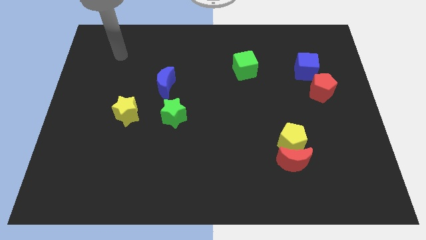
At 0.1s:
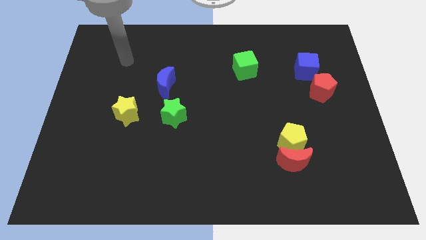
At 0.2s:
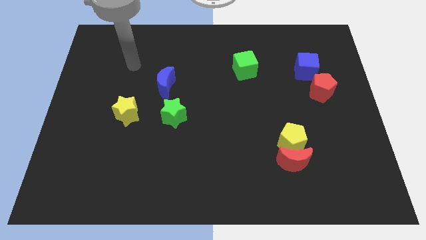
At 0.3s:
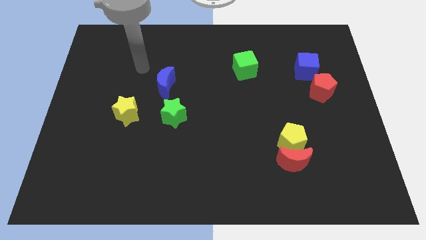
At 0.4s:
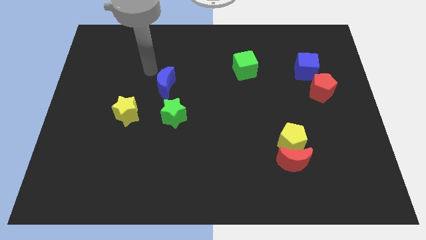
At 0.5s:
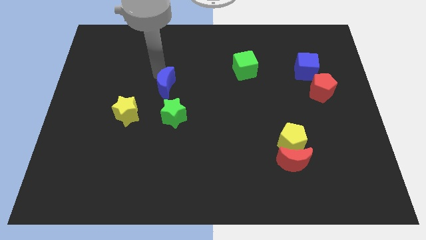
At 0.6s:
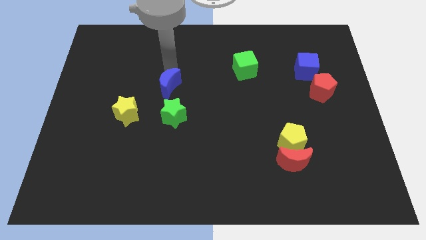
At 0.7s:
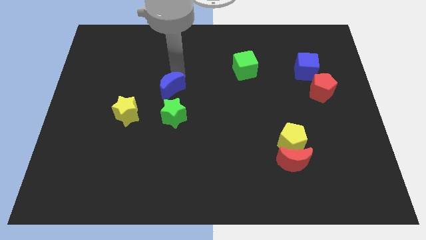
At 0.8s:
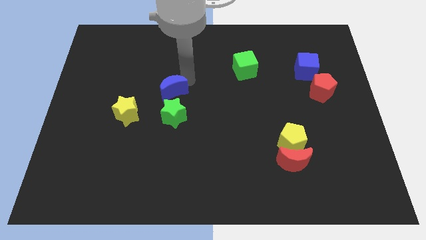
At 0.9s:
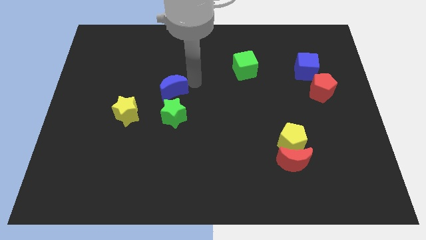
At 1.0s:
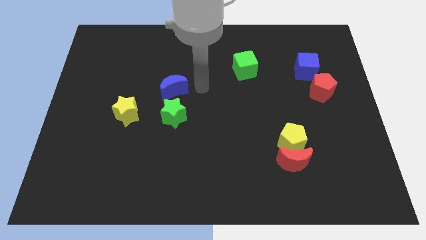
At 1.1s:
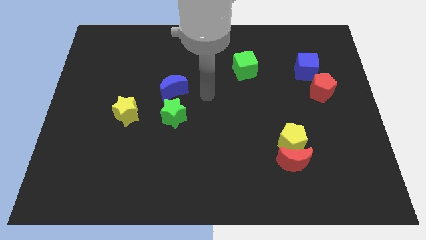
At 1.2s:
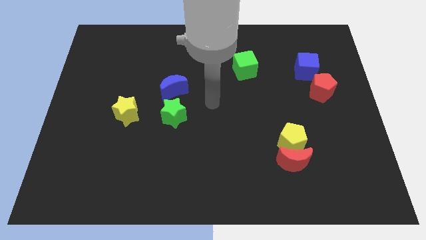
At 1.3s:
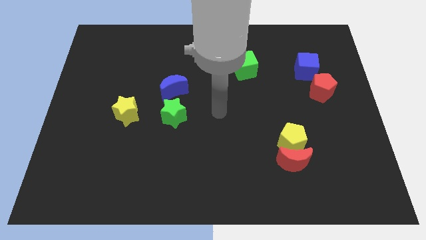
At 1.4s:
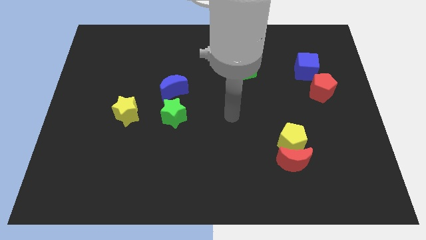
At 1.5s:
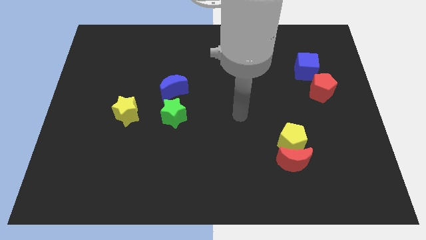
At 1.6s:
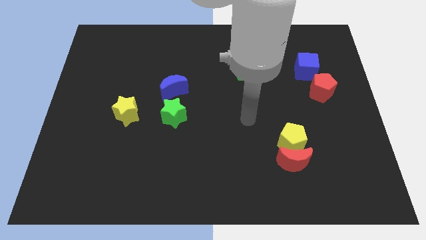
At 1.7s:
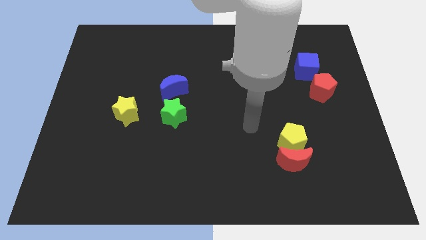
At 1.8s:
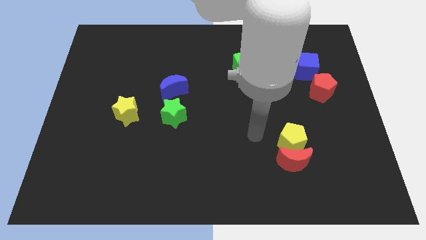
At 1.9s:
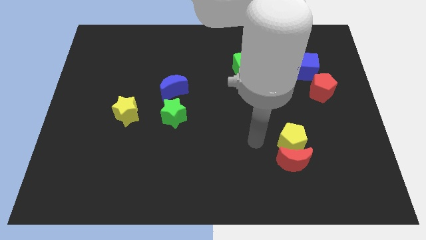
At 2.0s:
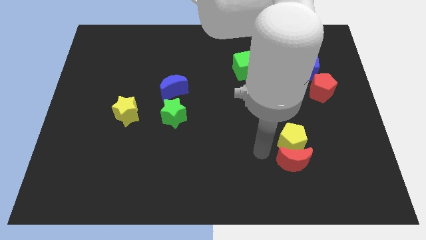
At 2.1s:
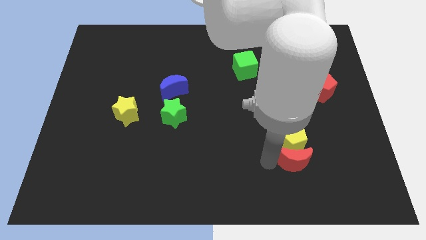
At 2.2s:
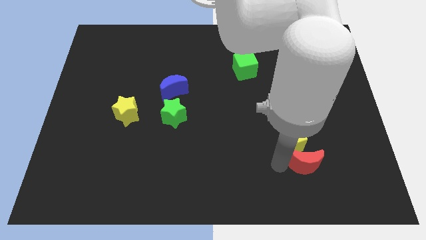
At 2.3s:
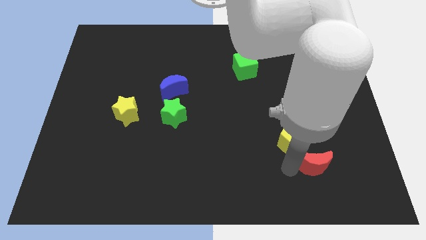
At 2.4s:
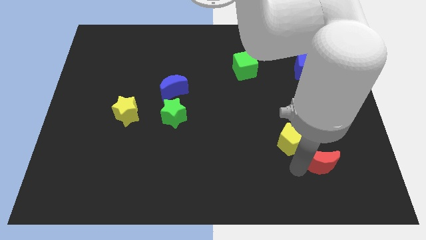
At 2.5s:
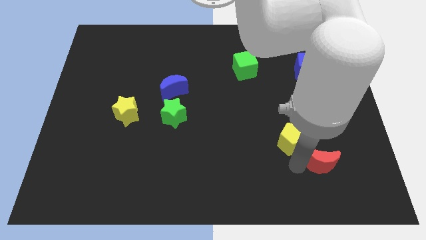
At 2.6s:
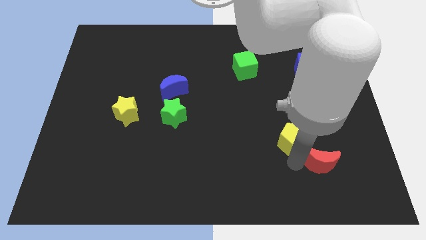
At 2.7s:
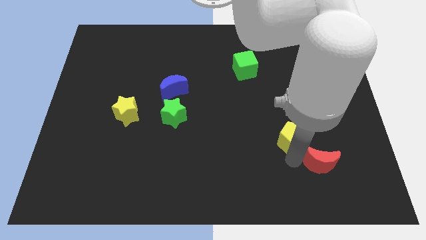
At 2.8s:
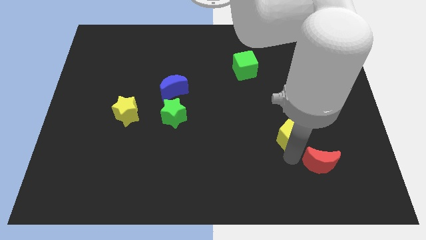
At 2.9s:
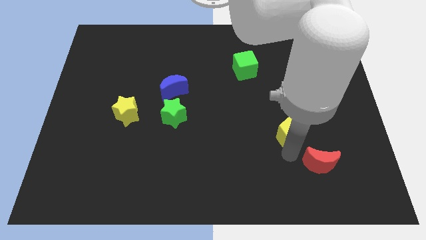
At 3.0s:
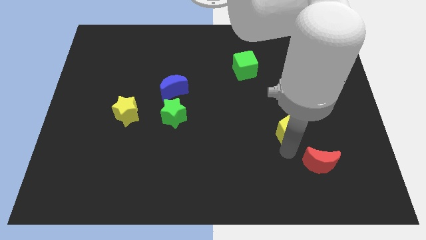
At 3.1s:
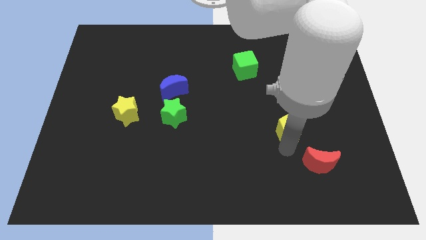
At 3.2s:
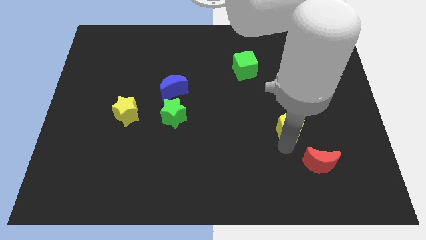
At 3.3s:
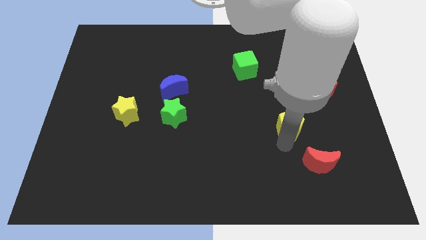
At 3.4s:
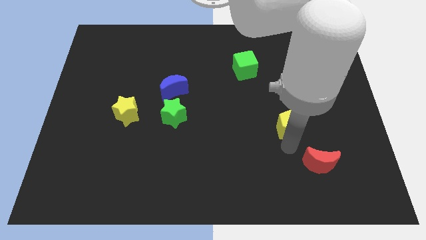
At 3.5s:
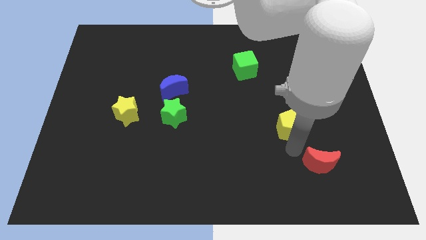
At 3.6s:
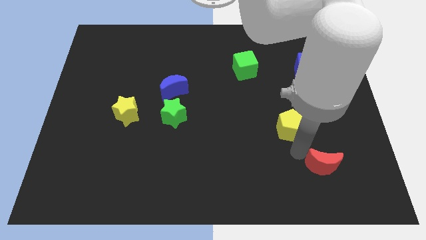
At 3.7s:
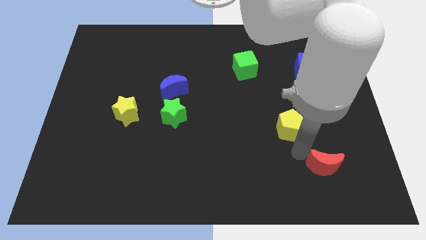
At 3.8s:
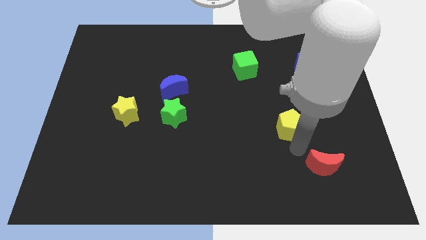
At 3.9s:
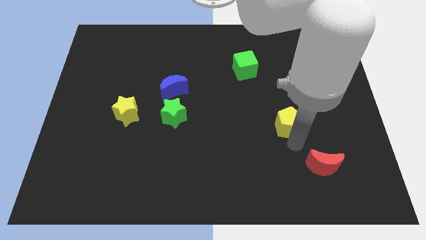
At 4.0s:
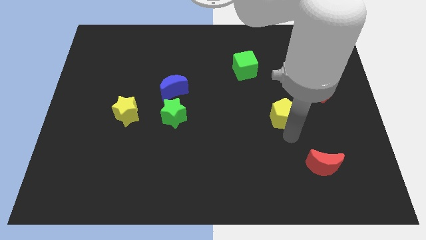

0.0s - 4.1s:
slightly slide the yellow pentagon upwards

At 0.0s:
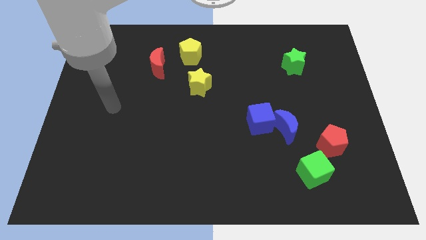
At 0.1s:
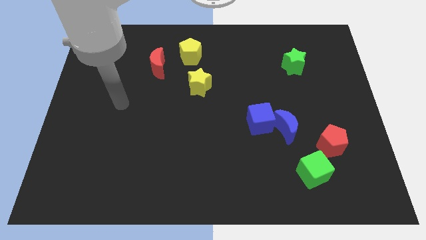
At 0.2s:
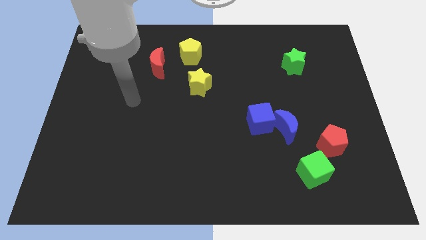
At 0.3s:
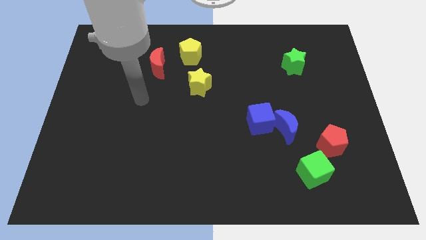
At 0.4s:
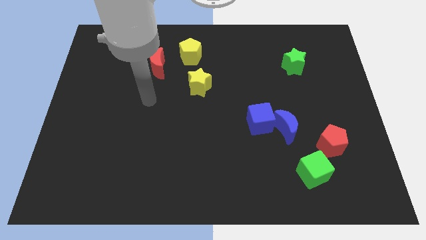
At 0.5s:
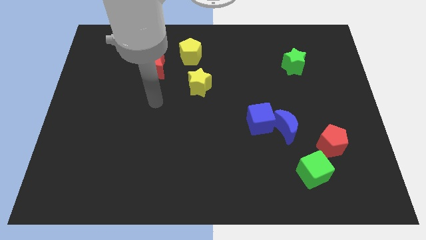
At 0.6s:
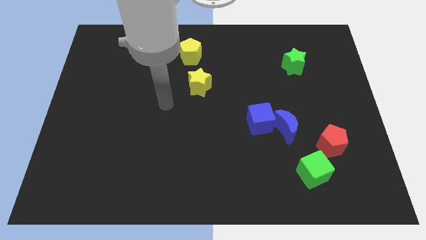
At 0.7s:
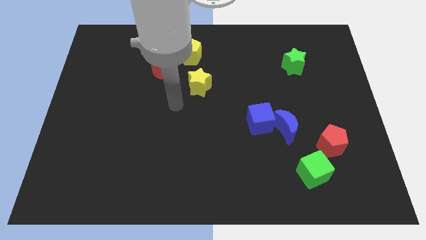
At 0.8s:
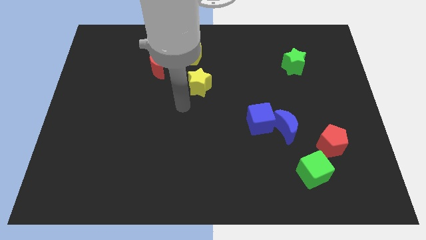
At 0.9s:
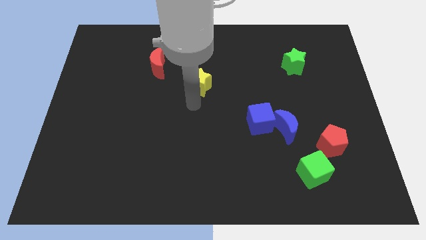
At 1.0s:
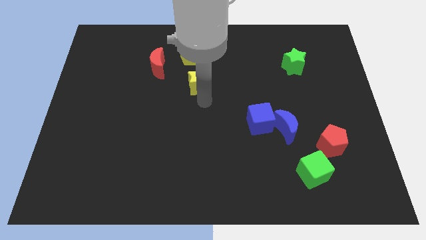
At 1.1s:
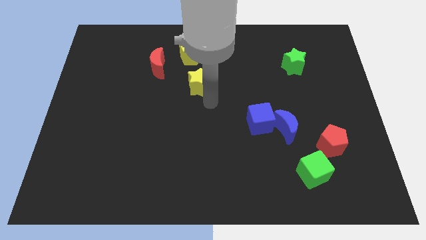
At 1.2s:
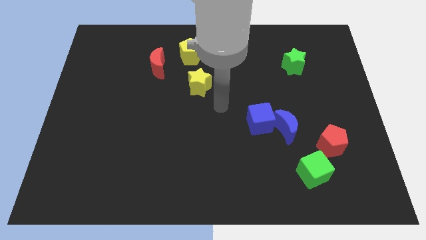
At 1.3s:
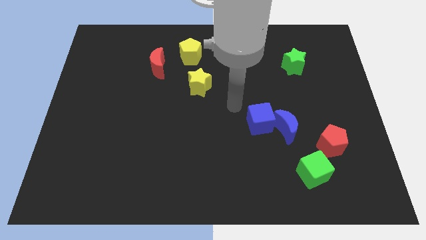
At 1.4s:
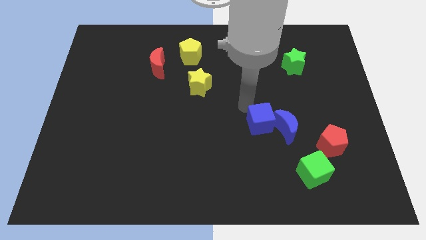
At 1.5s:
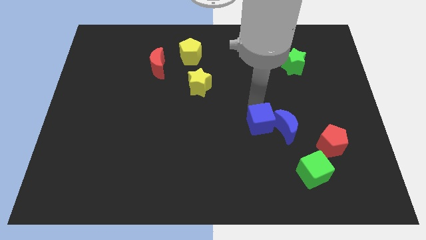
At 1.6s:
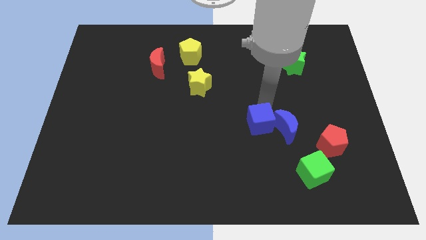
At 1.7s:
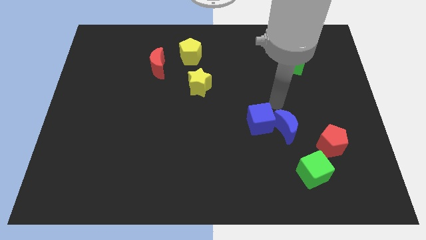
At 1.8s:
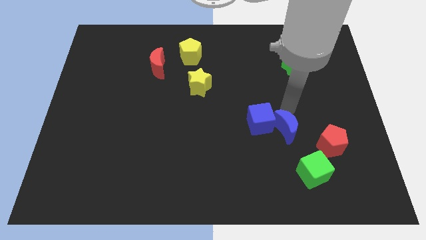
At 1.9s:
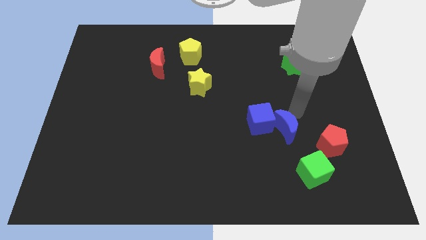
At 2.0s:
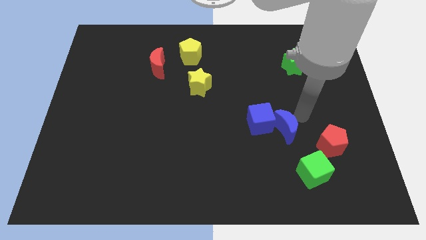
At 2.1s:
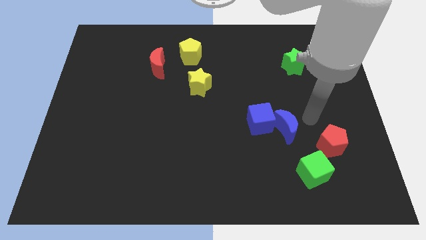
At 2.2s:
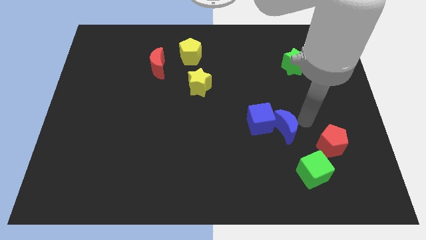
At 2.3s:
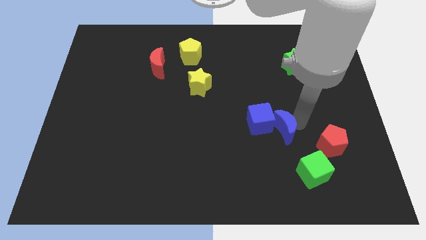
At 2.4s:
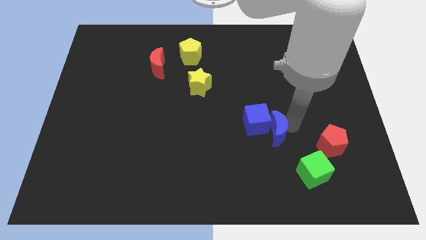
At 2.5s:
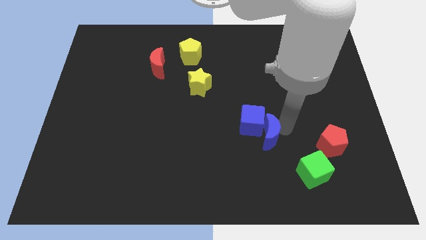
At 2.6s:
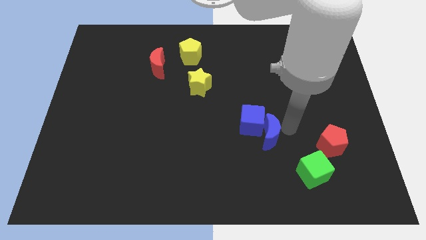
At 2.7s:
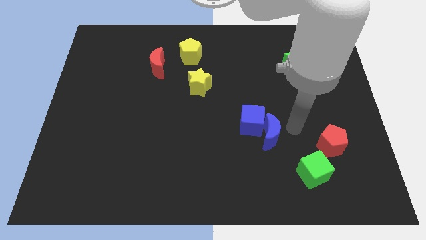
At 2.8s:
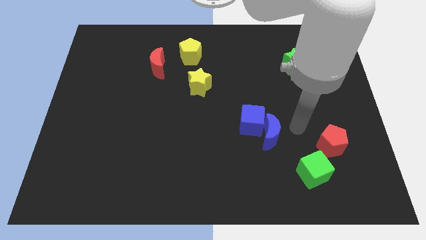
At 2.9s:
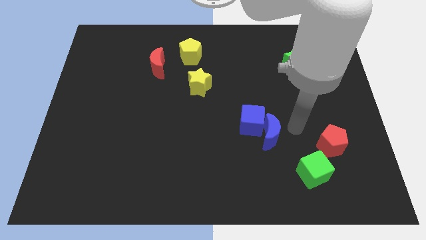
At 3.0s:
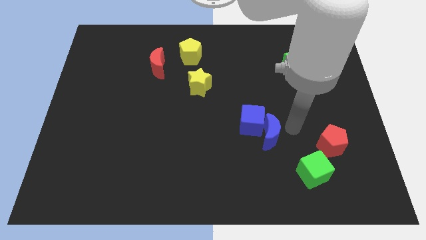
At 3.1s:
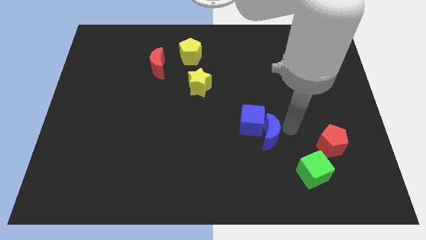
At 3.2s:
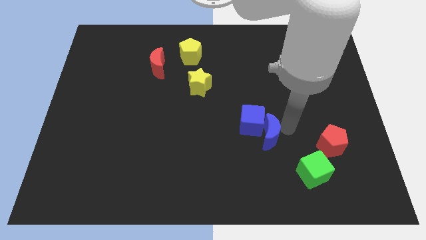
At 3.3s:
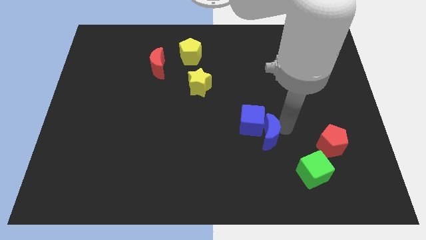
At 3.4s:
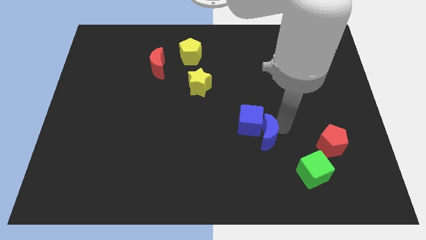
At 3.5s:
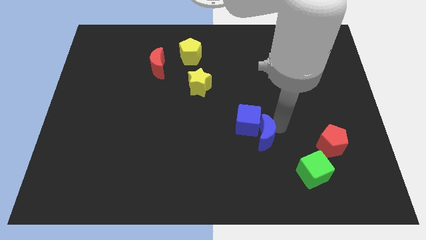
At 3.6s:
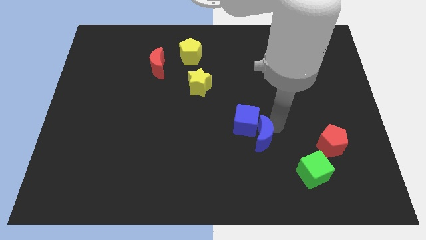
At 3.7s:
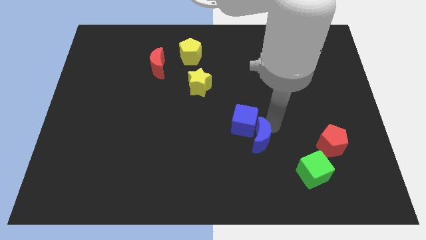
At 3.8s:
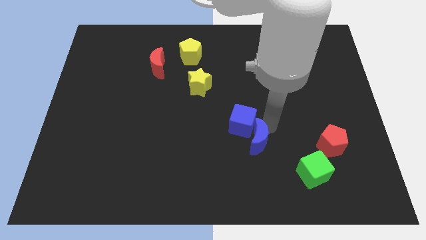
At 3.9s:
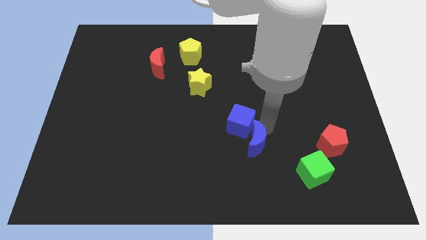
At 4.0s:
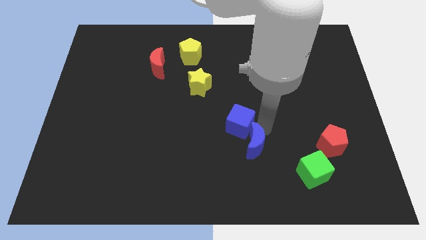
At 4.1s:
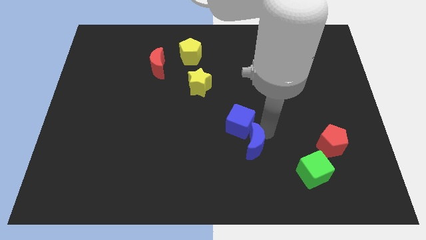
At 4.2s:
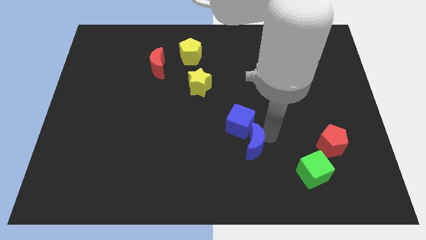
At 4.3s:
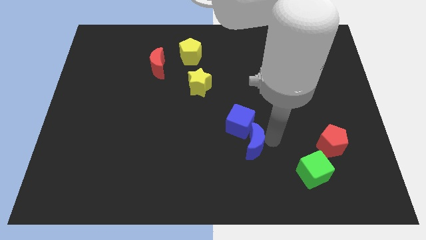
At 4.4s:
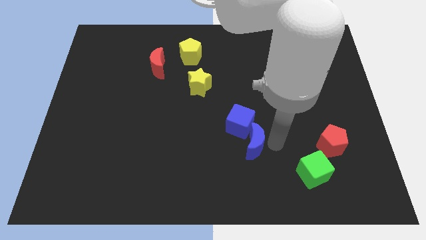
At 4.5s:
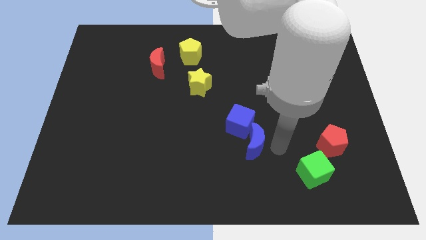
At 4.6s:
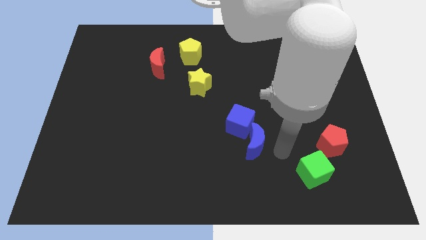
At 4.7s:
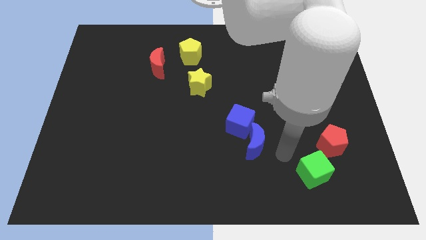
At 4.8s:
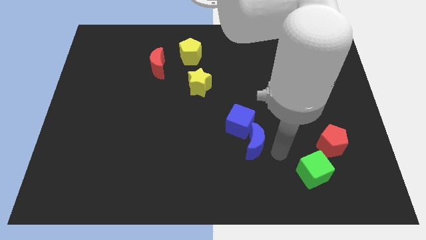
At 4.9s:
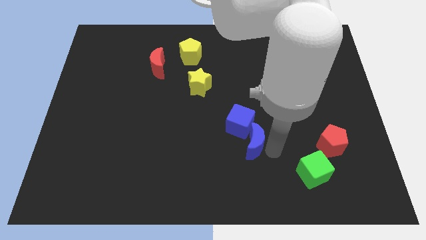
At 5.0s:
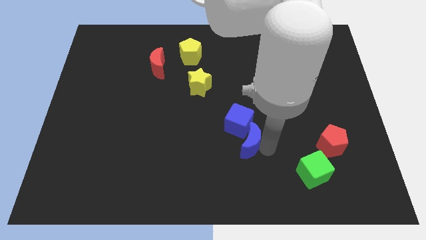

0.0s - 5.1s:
slide the blue moon slightly left
